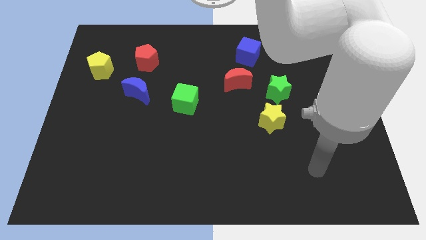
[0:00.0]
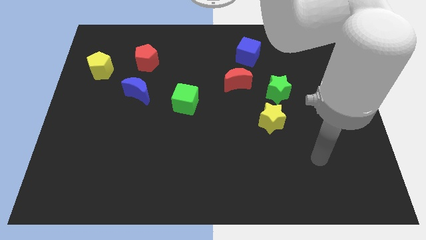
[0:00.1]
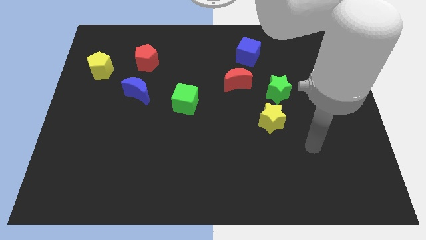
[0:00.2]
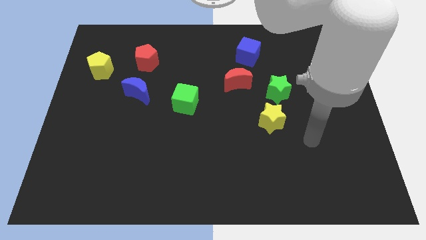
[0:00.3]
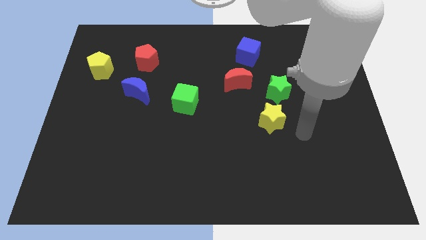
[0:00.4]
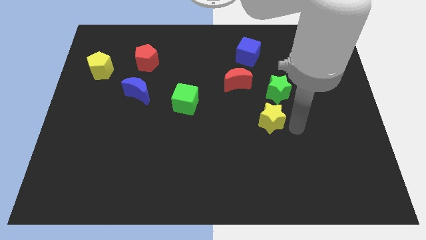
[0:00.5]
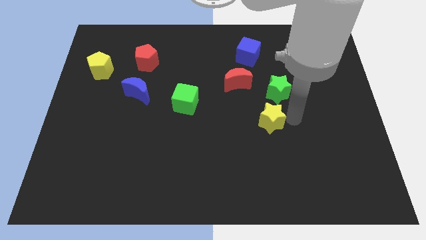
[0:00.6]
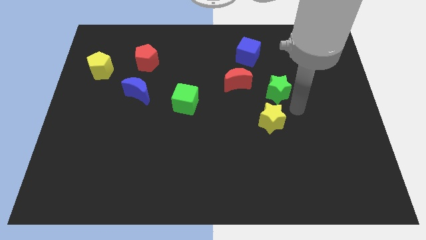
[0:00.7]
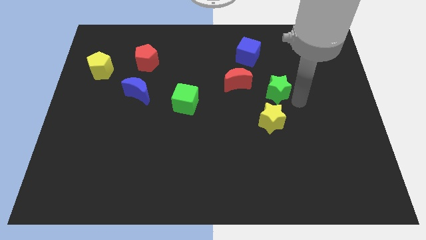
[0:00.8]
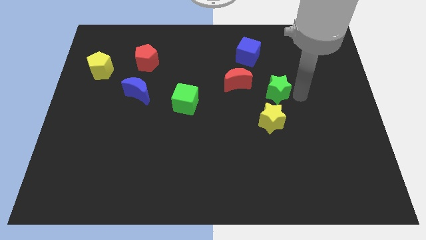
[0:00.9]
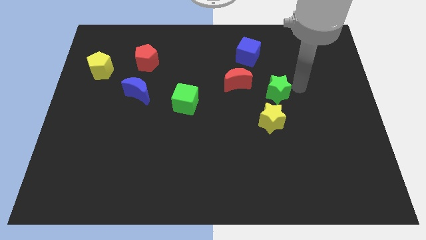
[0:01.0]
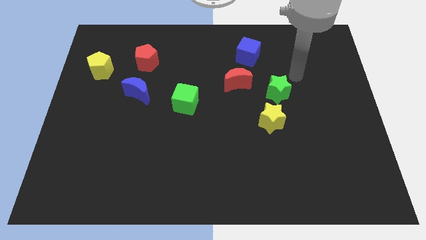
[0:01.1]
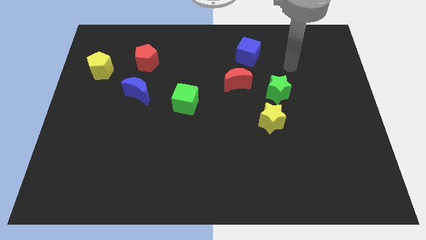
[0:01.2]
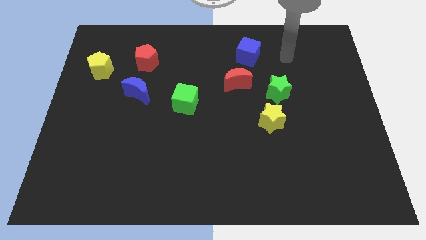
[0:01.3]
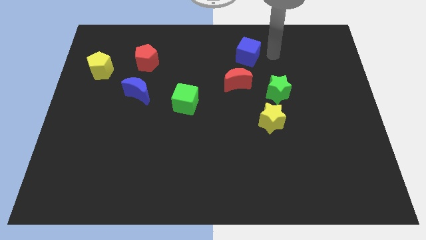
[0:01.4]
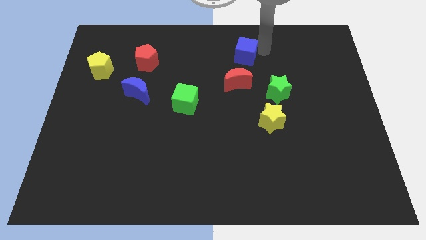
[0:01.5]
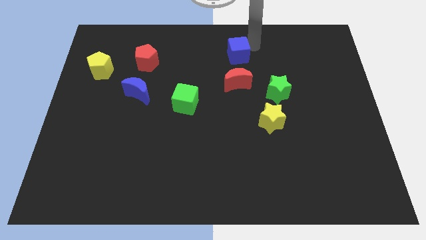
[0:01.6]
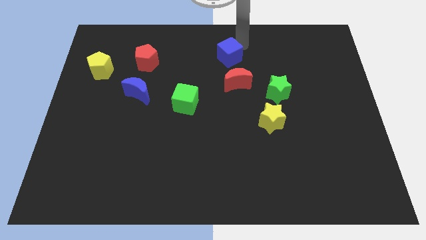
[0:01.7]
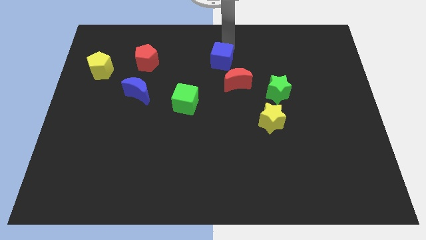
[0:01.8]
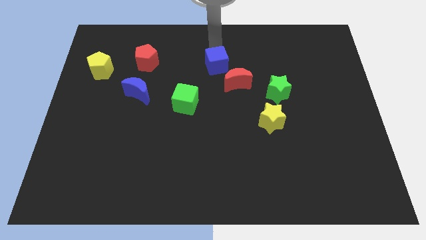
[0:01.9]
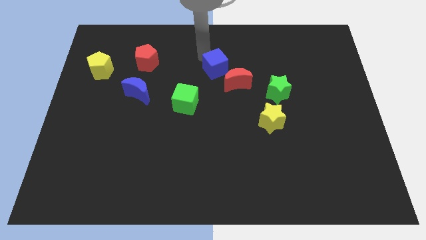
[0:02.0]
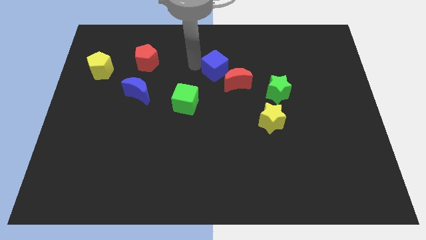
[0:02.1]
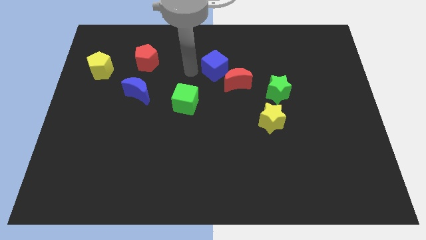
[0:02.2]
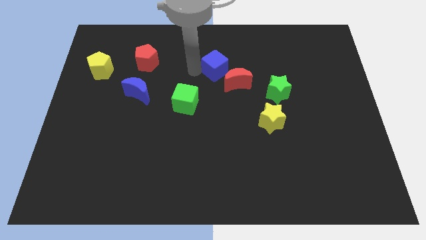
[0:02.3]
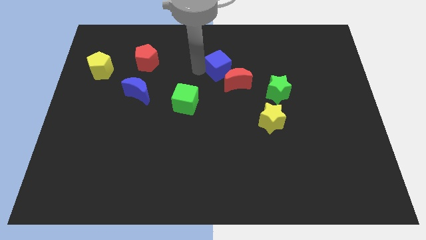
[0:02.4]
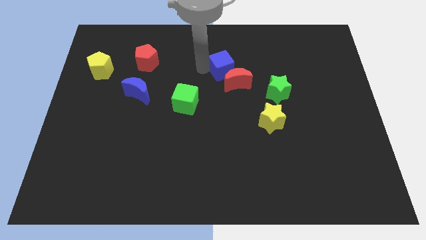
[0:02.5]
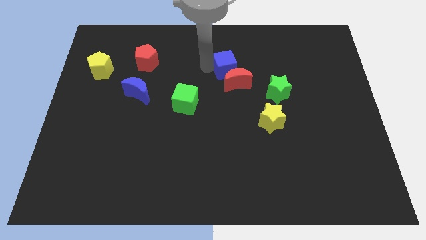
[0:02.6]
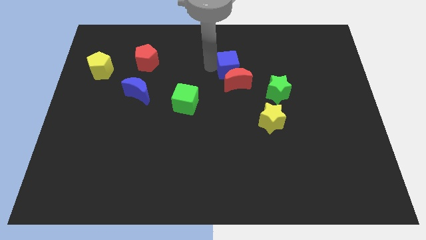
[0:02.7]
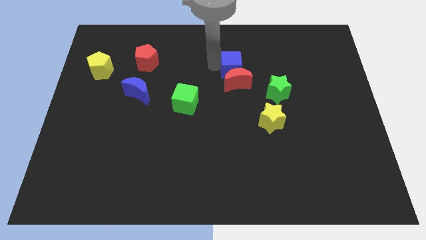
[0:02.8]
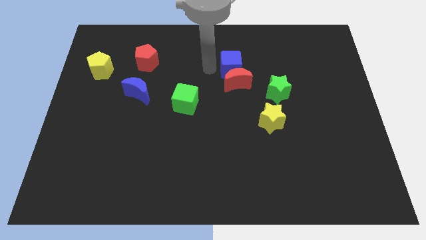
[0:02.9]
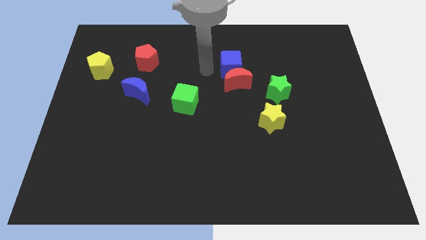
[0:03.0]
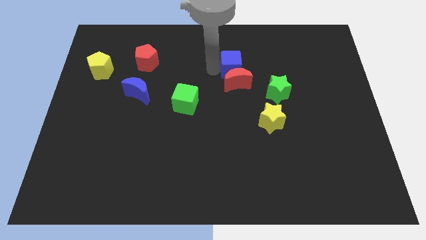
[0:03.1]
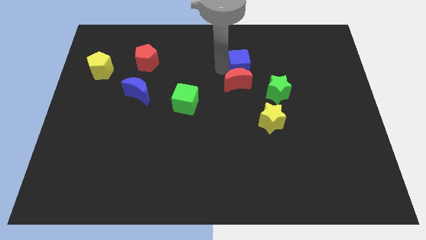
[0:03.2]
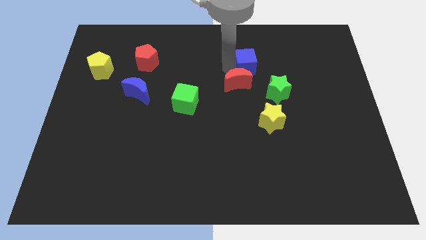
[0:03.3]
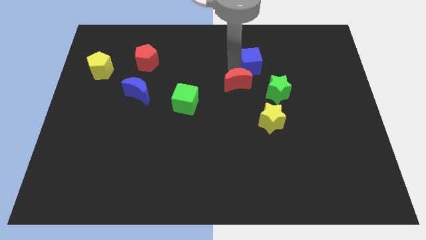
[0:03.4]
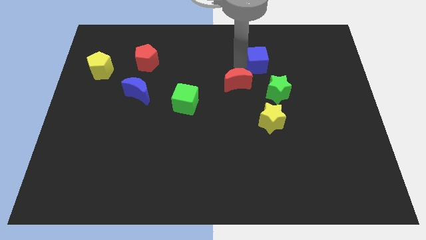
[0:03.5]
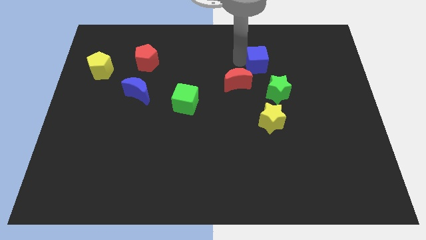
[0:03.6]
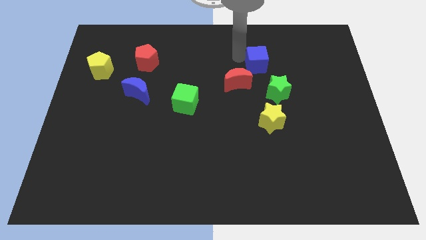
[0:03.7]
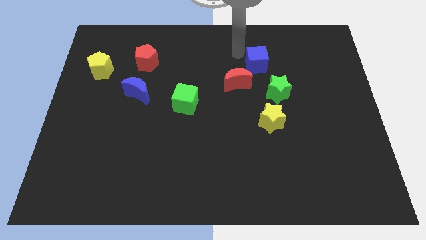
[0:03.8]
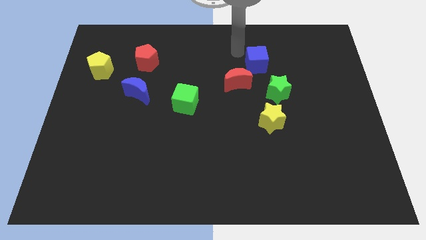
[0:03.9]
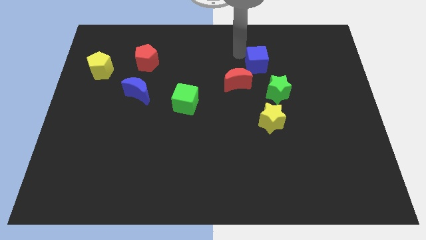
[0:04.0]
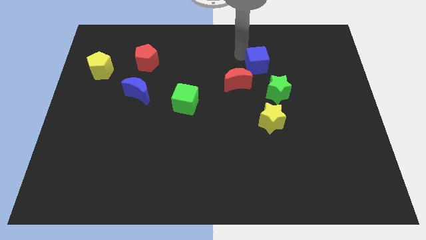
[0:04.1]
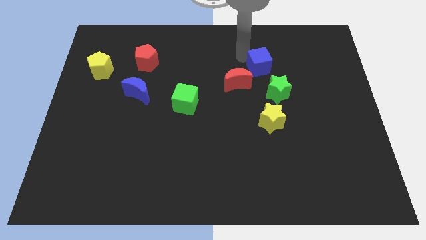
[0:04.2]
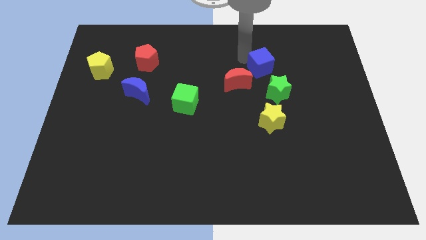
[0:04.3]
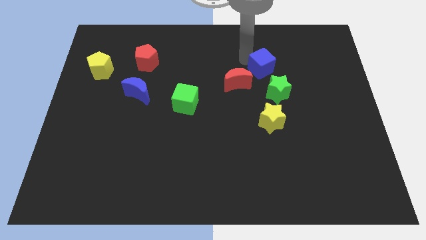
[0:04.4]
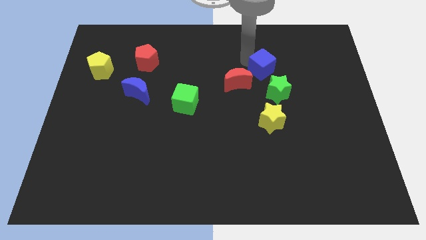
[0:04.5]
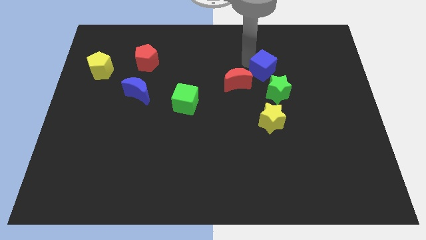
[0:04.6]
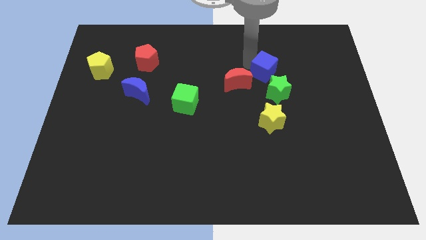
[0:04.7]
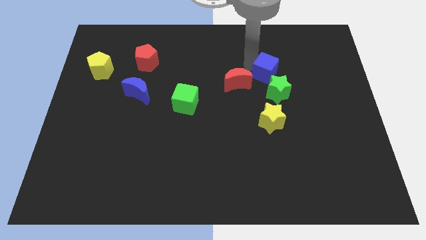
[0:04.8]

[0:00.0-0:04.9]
push the blue cube slightly downwards and right diagonally

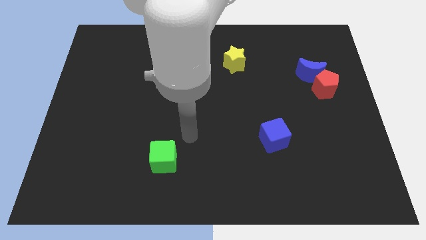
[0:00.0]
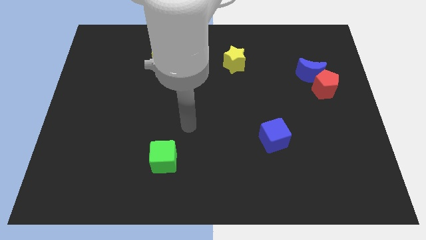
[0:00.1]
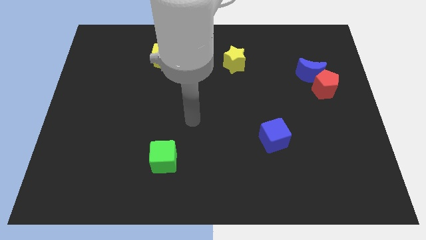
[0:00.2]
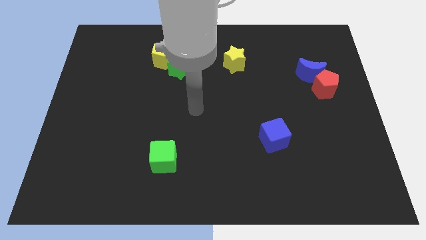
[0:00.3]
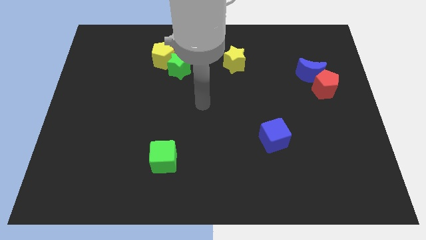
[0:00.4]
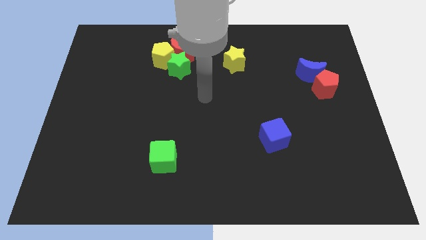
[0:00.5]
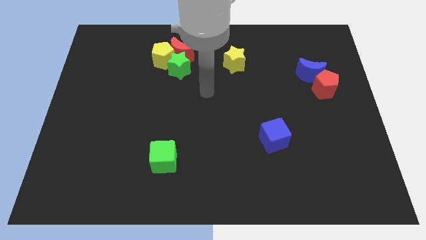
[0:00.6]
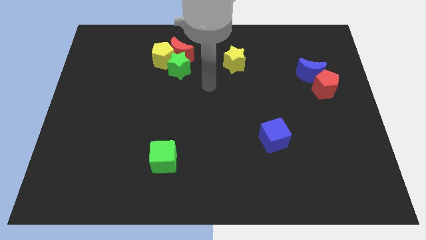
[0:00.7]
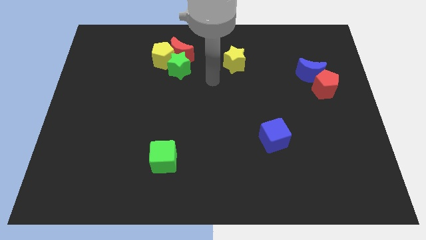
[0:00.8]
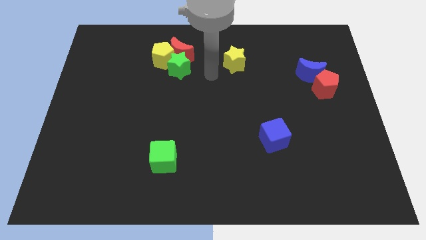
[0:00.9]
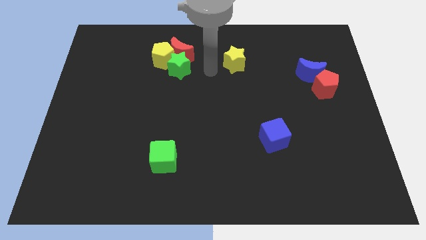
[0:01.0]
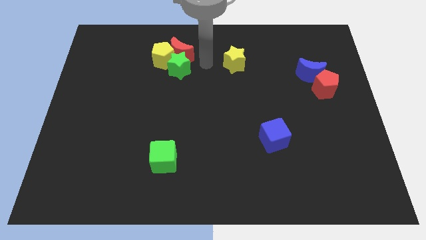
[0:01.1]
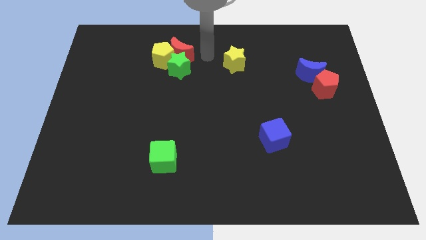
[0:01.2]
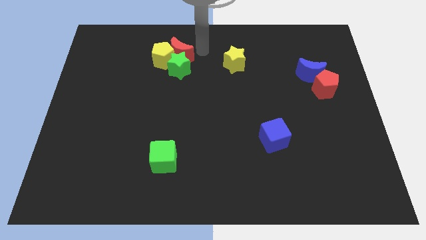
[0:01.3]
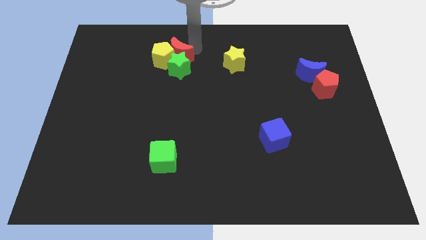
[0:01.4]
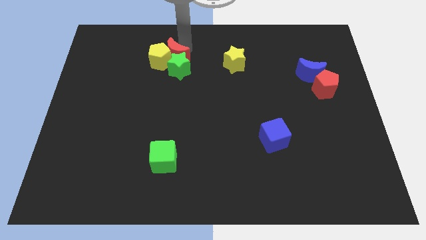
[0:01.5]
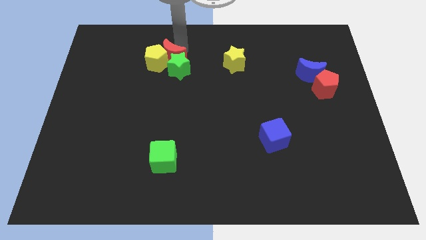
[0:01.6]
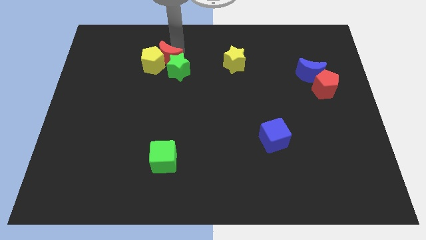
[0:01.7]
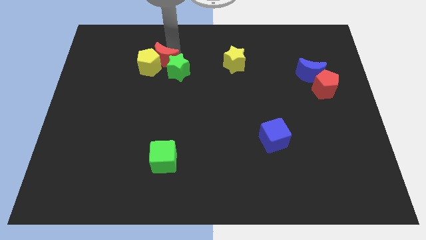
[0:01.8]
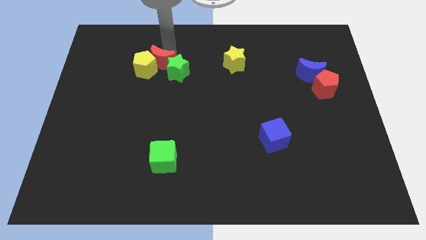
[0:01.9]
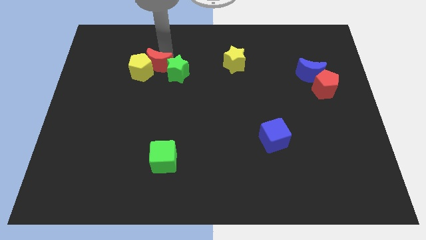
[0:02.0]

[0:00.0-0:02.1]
push the yellow pentagon a little bit downwards and then to the left

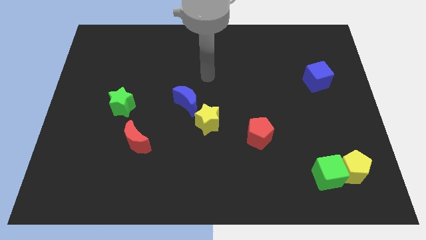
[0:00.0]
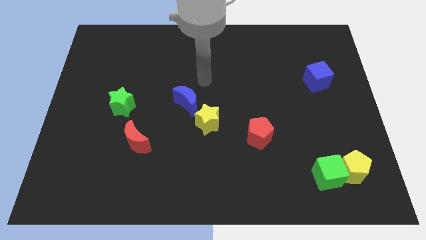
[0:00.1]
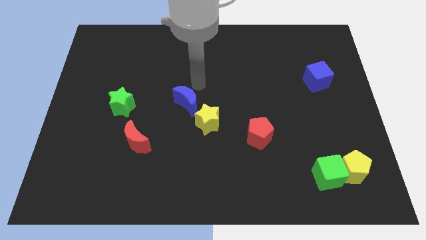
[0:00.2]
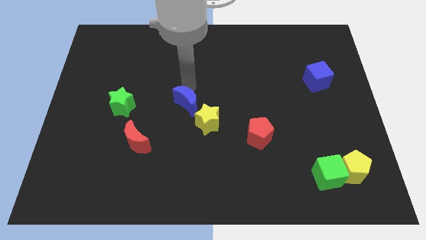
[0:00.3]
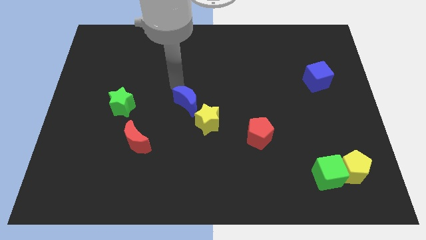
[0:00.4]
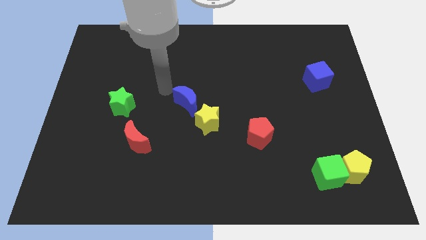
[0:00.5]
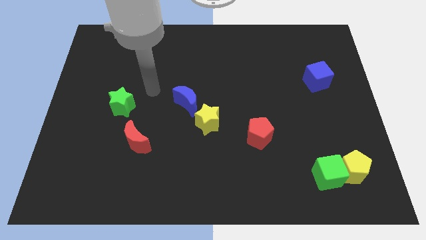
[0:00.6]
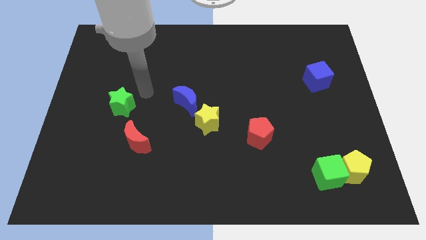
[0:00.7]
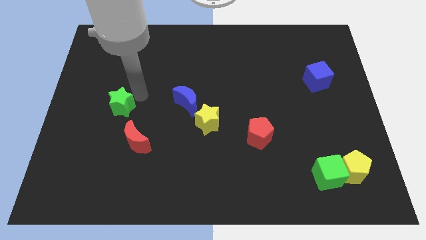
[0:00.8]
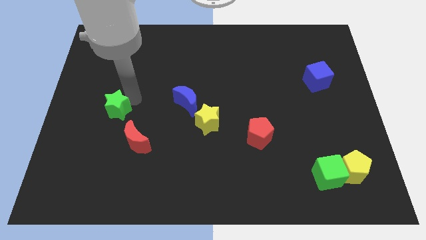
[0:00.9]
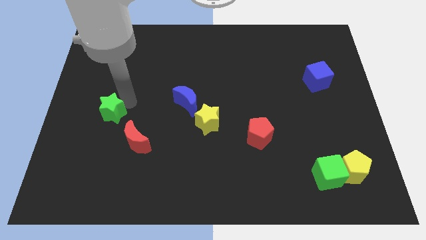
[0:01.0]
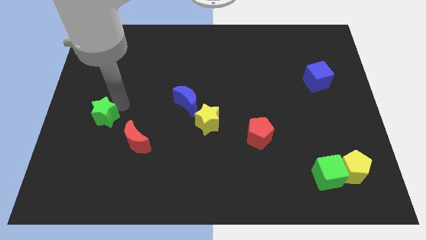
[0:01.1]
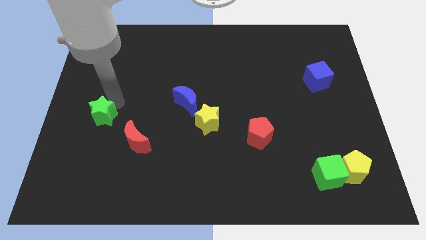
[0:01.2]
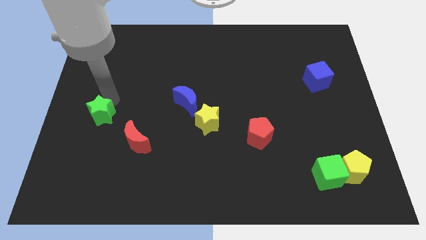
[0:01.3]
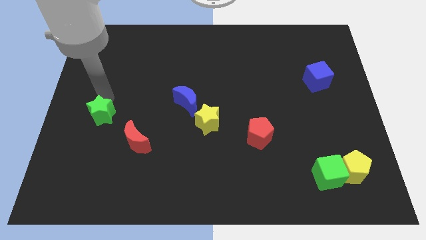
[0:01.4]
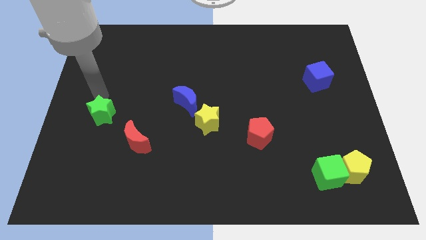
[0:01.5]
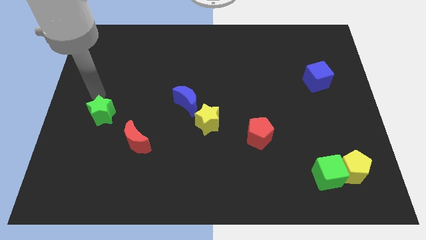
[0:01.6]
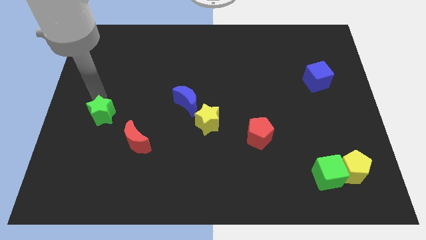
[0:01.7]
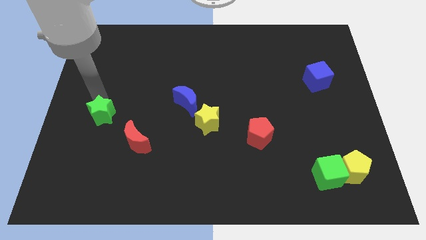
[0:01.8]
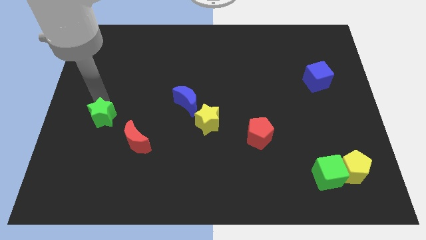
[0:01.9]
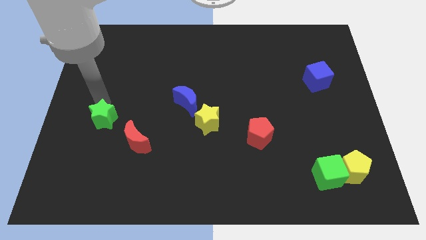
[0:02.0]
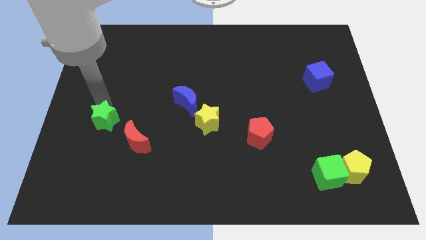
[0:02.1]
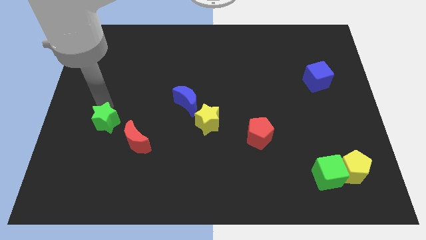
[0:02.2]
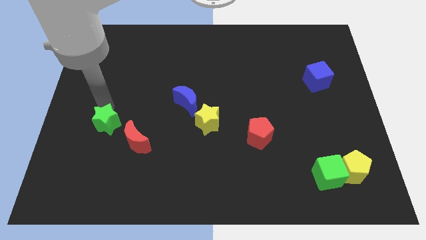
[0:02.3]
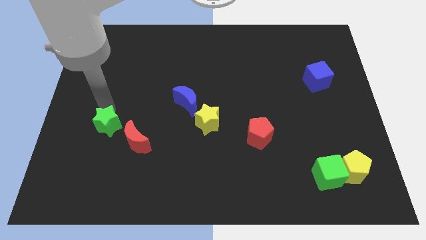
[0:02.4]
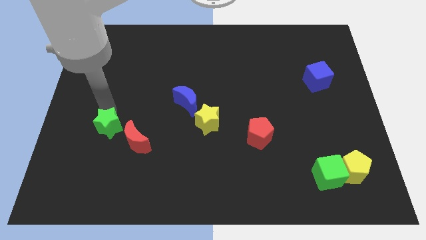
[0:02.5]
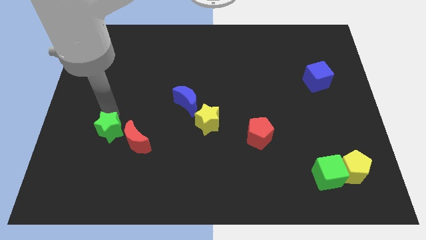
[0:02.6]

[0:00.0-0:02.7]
push the green star downwards somewhat
